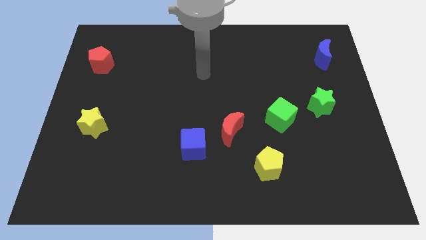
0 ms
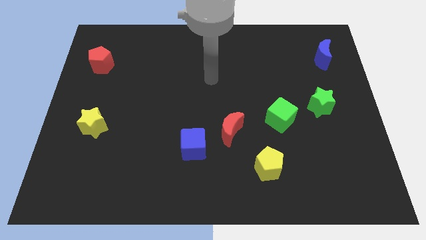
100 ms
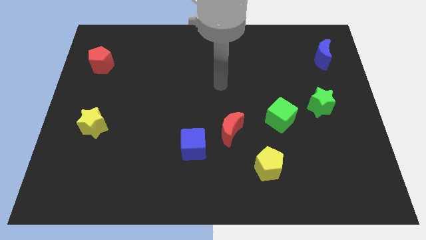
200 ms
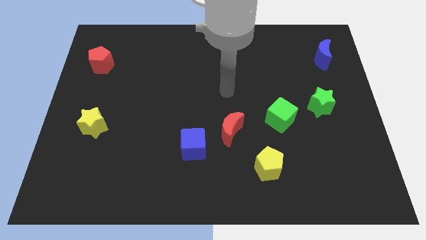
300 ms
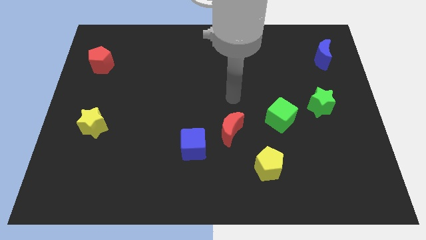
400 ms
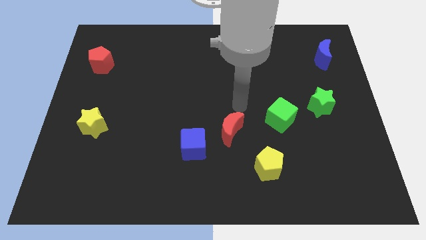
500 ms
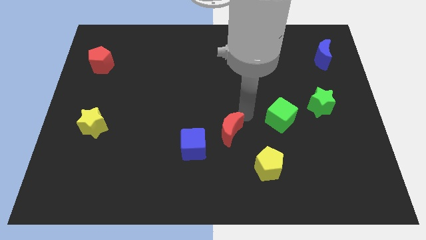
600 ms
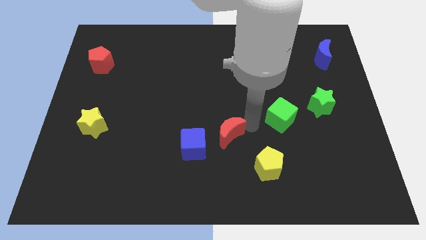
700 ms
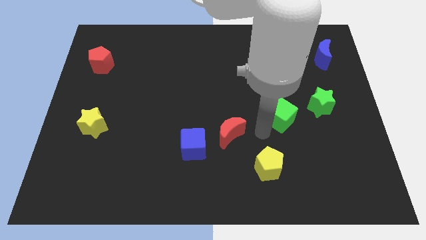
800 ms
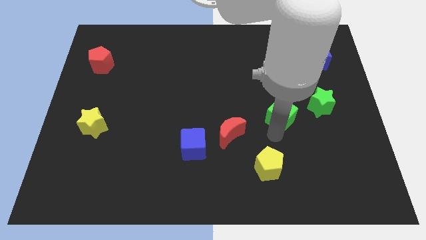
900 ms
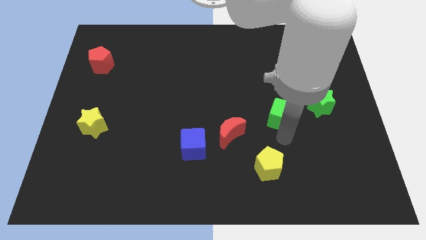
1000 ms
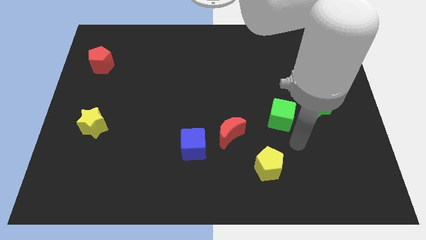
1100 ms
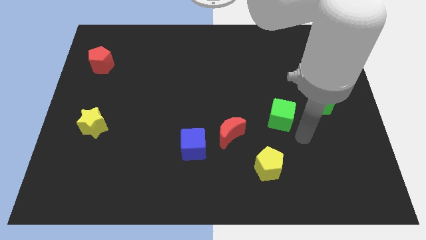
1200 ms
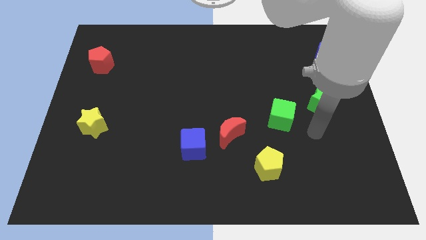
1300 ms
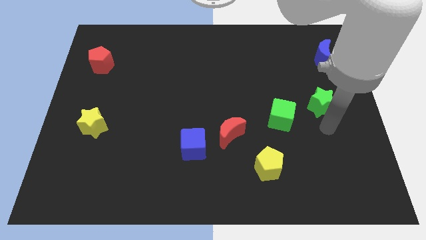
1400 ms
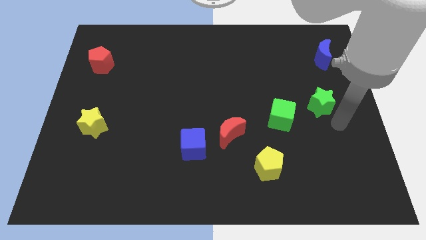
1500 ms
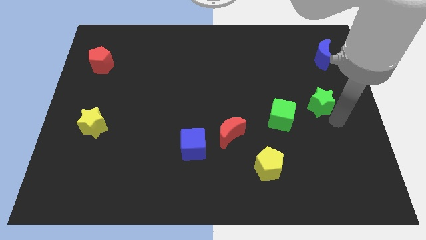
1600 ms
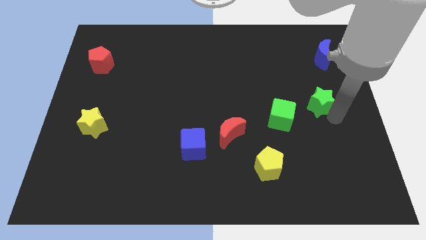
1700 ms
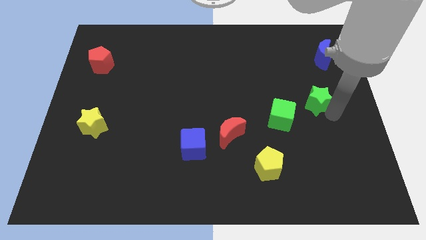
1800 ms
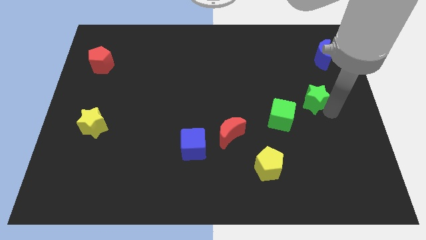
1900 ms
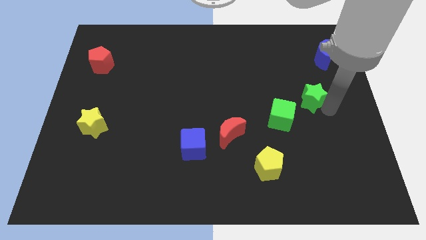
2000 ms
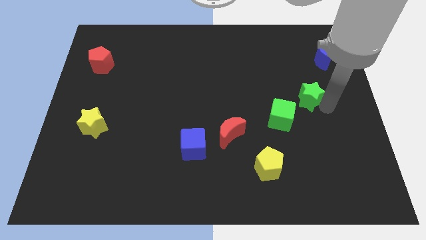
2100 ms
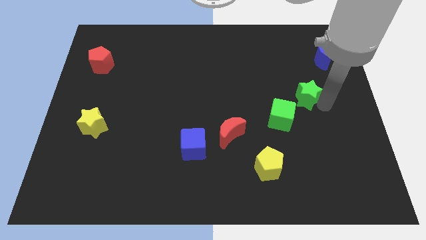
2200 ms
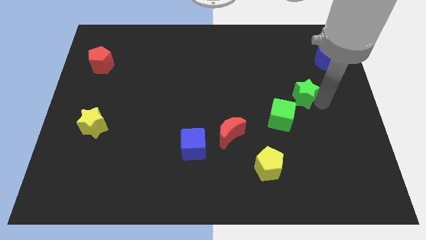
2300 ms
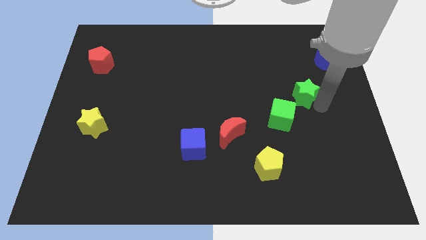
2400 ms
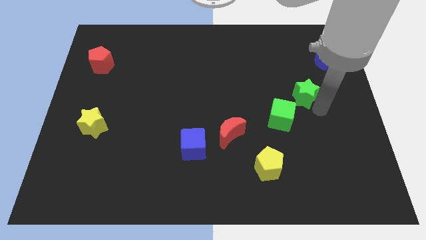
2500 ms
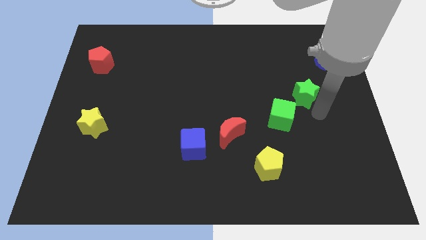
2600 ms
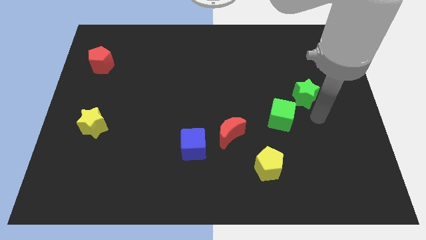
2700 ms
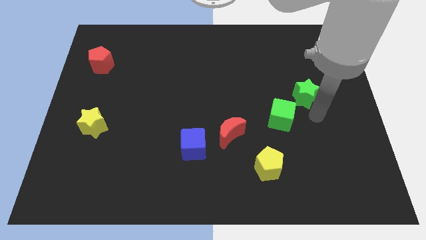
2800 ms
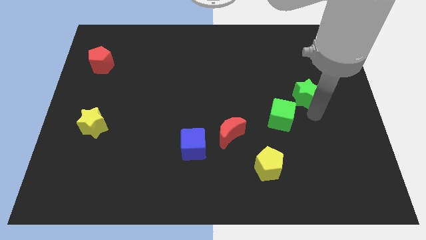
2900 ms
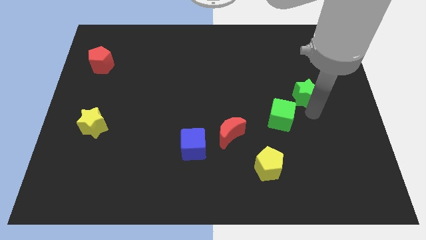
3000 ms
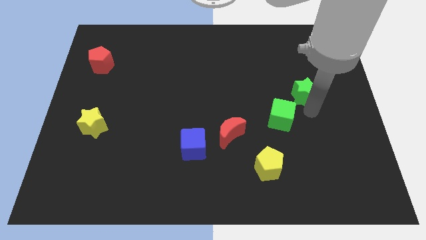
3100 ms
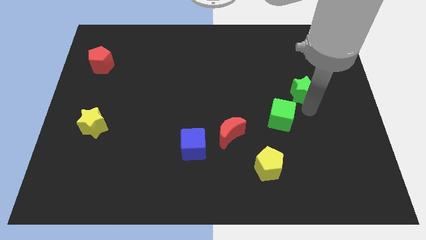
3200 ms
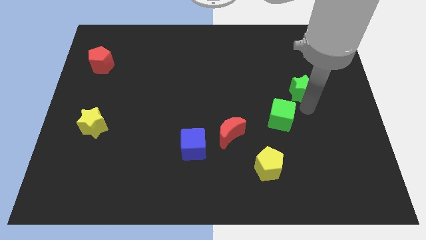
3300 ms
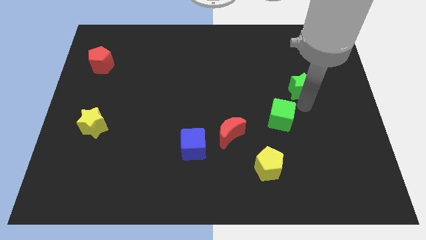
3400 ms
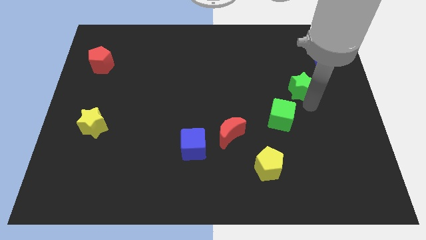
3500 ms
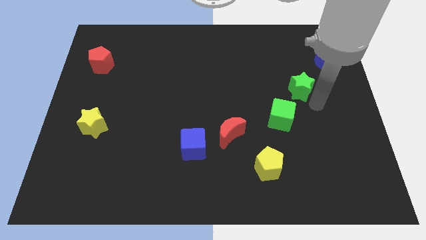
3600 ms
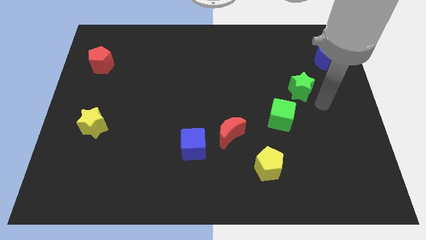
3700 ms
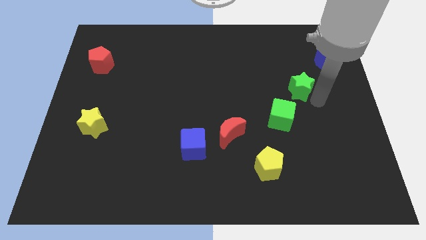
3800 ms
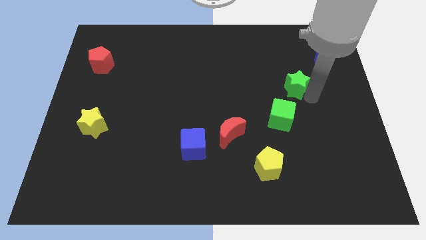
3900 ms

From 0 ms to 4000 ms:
slightly move the green star diagonally up and to the left

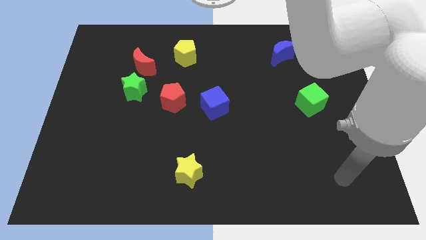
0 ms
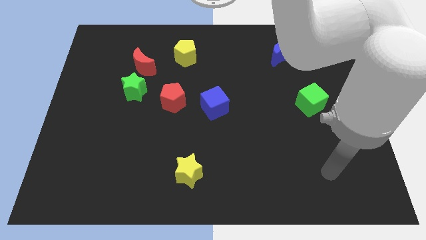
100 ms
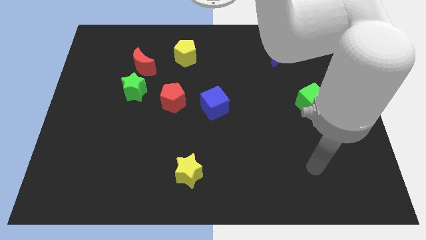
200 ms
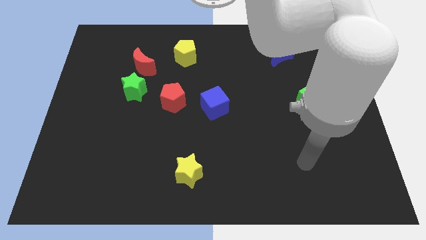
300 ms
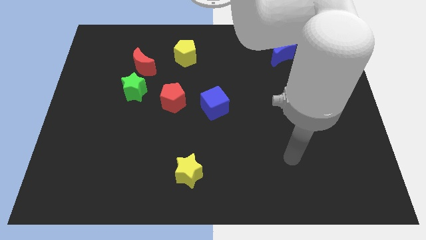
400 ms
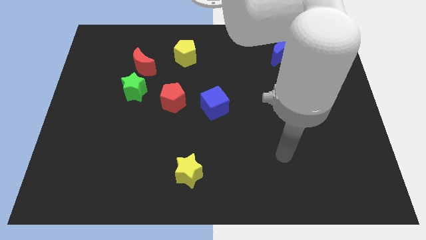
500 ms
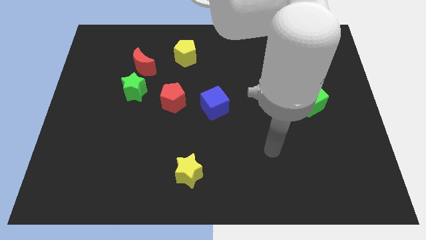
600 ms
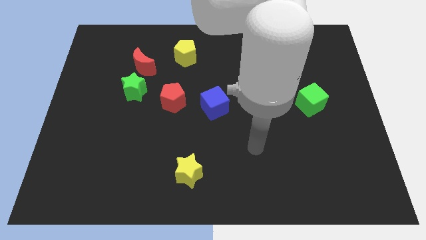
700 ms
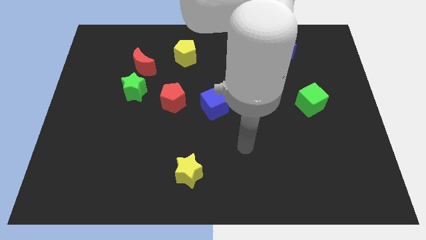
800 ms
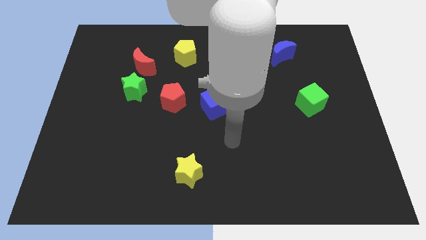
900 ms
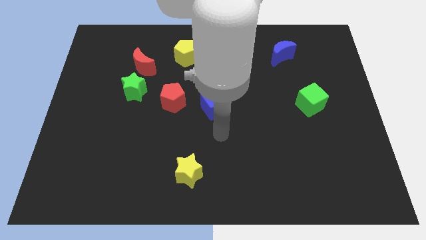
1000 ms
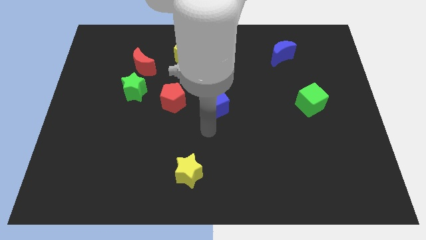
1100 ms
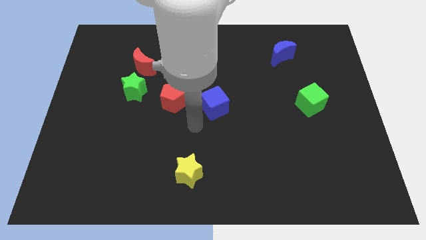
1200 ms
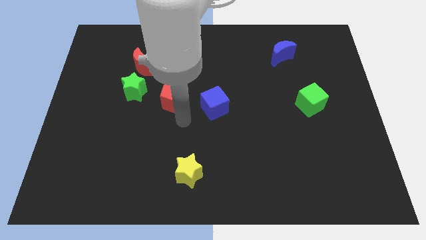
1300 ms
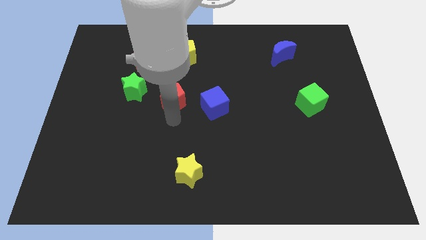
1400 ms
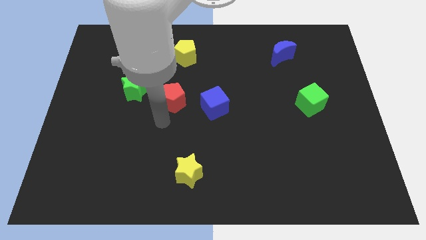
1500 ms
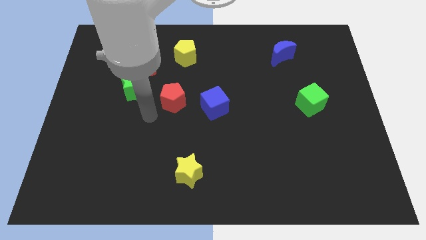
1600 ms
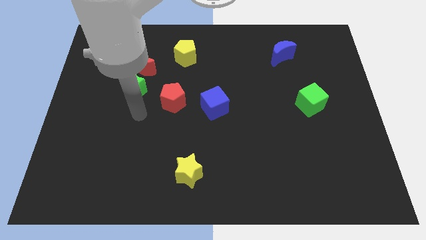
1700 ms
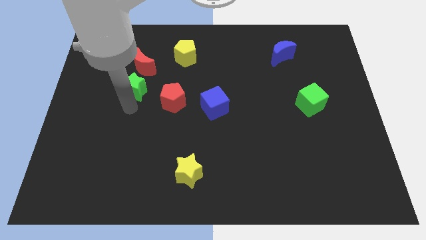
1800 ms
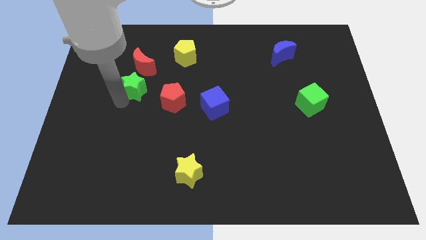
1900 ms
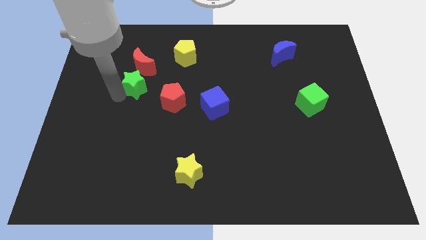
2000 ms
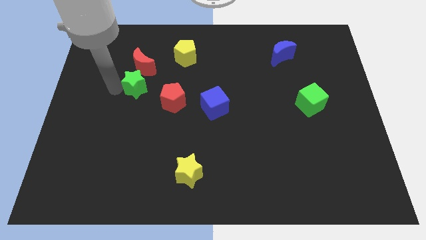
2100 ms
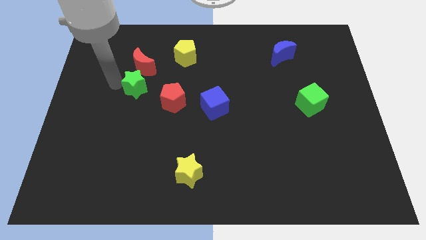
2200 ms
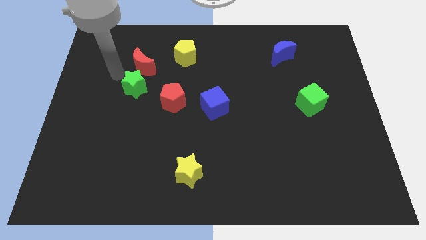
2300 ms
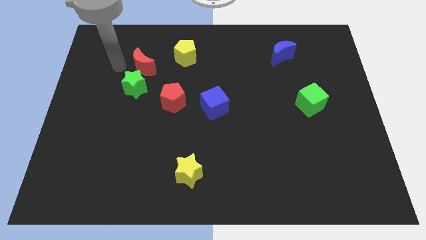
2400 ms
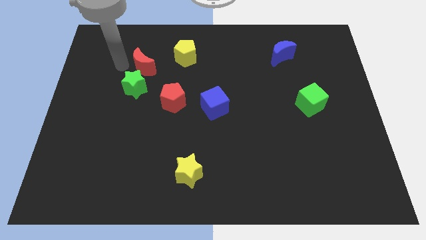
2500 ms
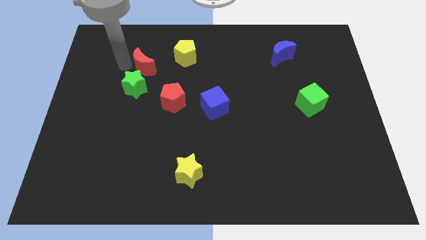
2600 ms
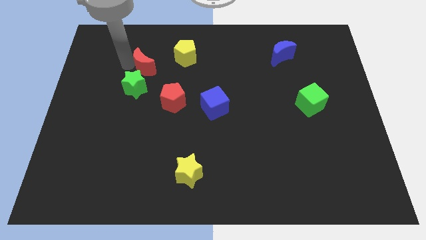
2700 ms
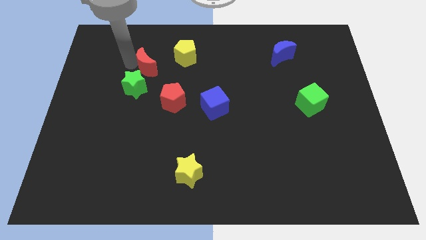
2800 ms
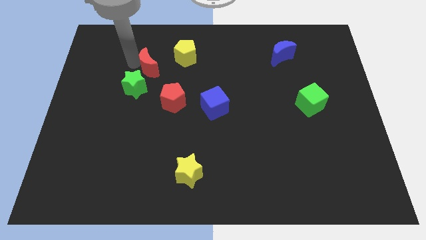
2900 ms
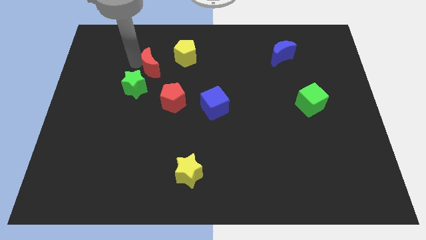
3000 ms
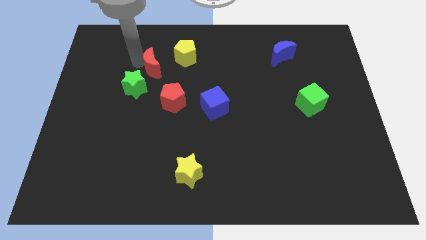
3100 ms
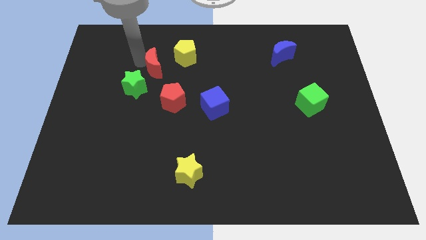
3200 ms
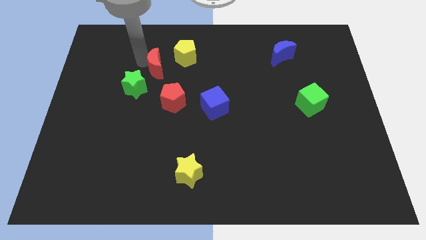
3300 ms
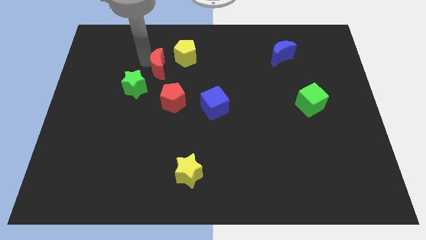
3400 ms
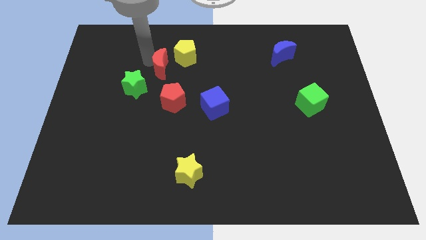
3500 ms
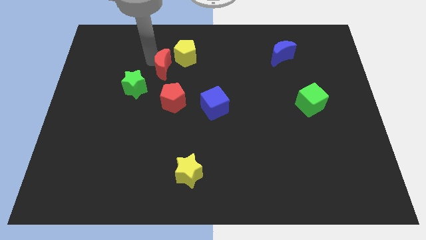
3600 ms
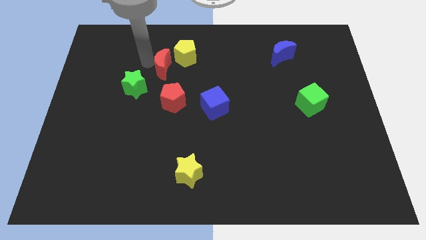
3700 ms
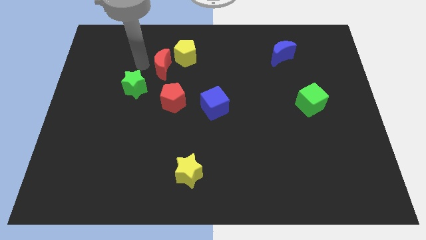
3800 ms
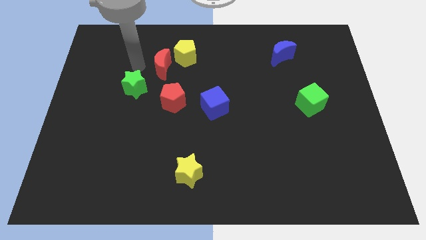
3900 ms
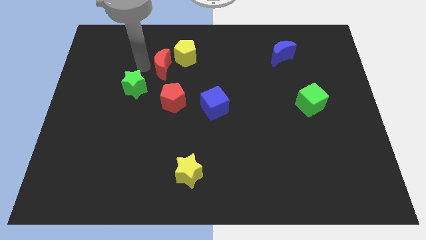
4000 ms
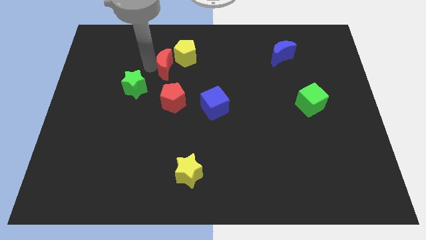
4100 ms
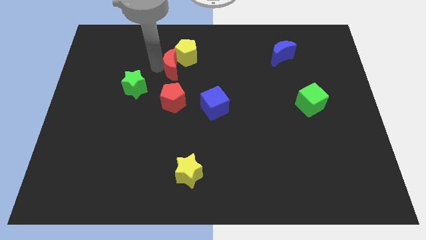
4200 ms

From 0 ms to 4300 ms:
slightly slide the red moon right
